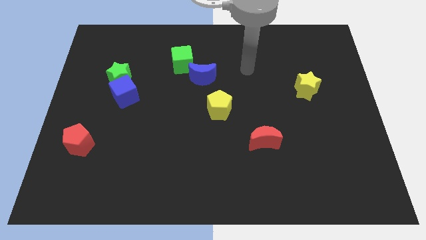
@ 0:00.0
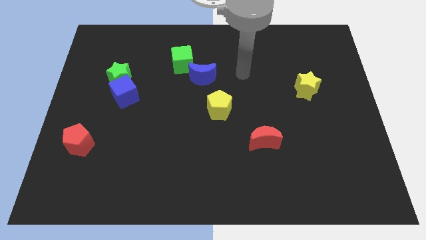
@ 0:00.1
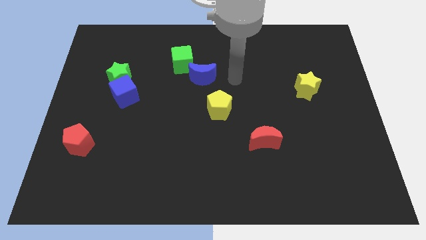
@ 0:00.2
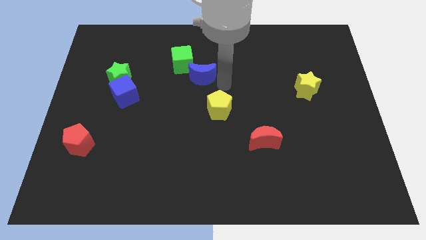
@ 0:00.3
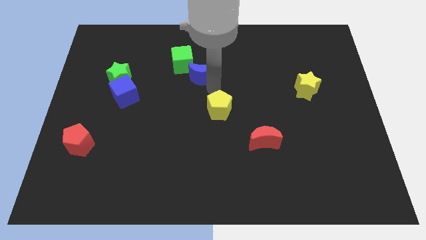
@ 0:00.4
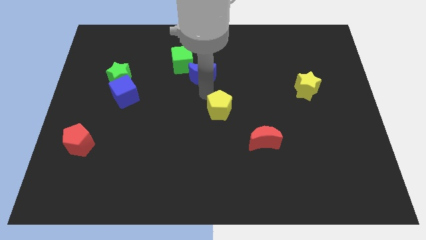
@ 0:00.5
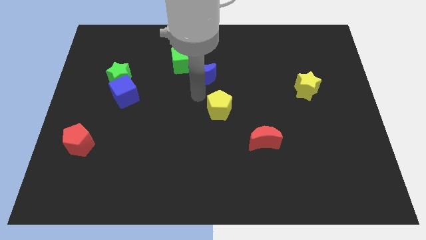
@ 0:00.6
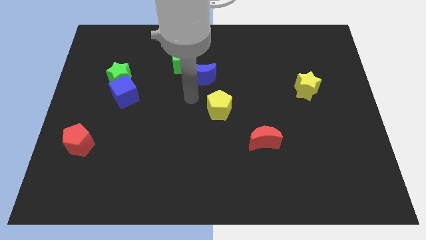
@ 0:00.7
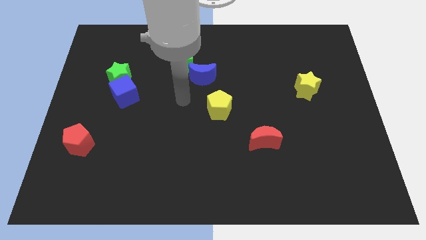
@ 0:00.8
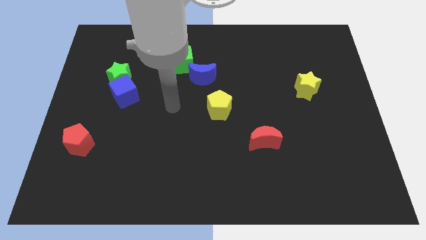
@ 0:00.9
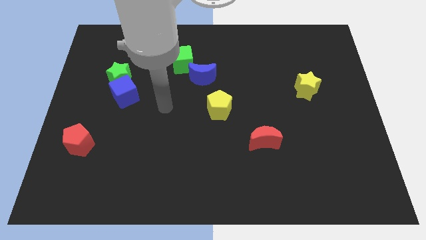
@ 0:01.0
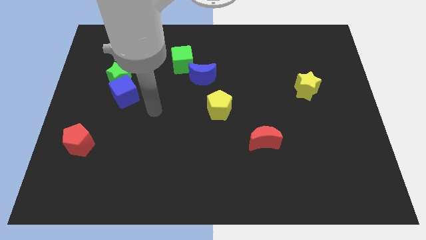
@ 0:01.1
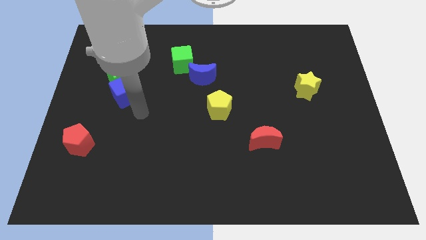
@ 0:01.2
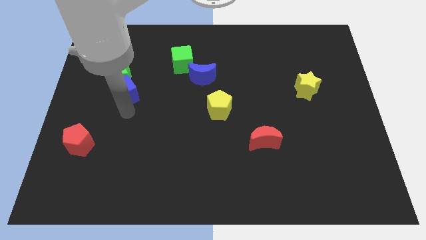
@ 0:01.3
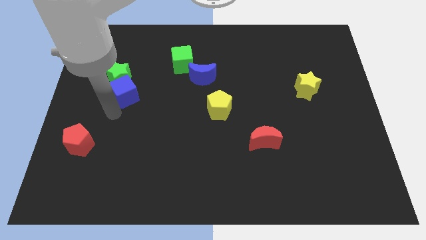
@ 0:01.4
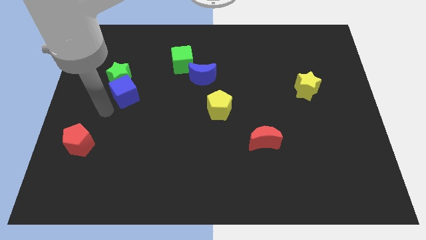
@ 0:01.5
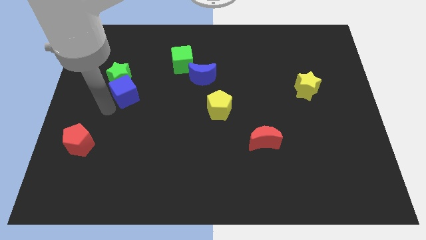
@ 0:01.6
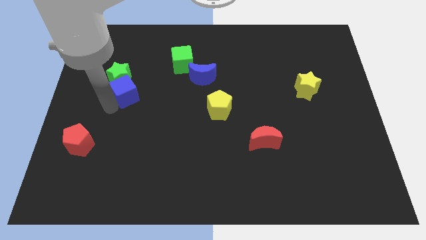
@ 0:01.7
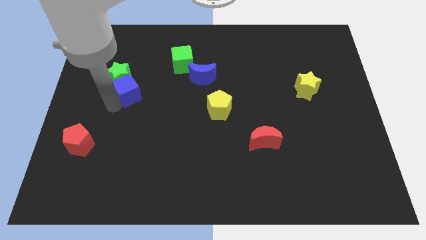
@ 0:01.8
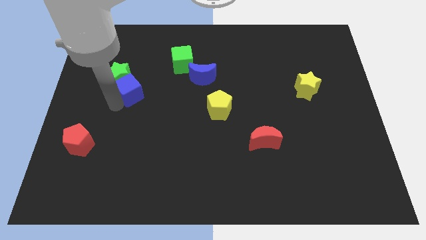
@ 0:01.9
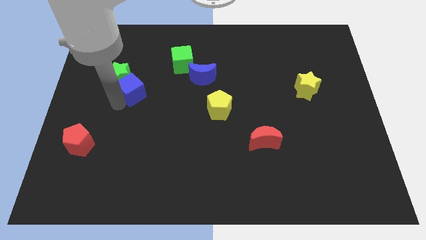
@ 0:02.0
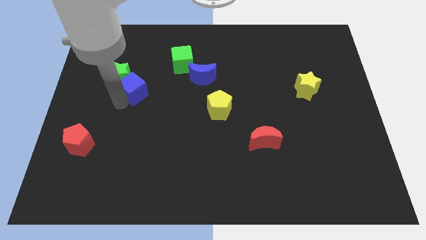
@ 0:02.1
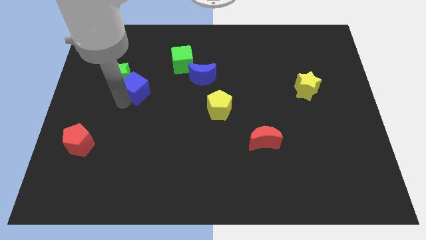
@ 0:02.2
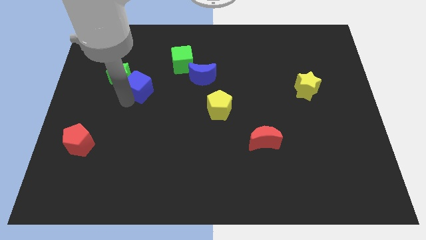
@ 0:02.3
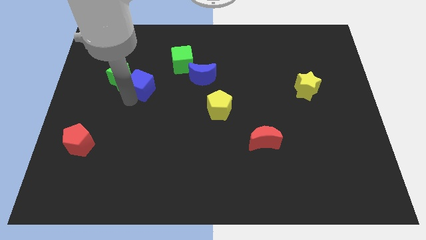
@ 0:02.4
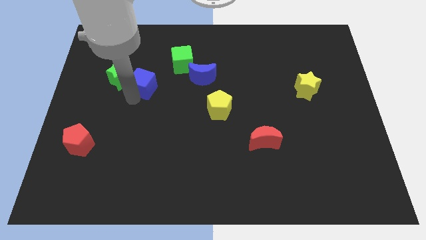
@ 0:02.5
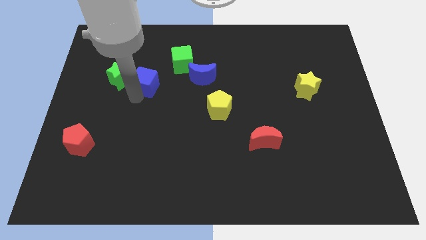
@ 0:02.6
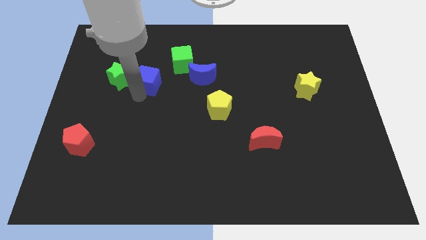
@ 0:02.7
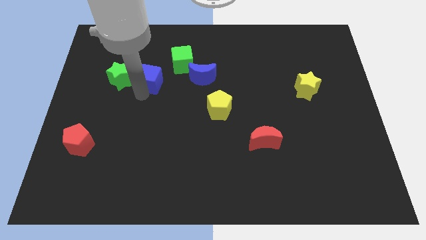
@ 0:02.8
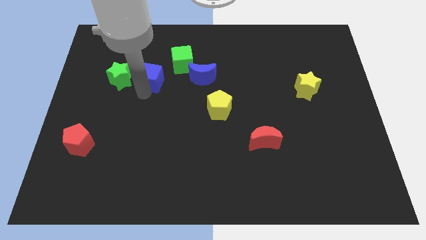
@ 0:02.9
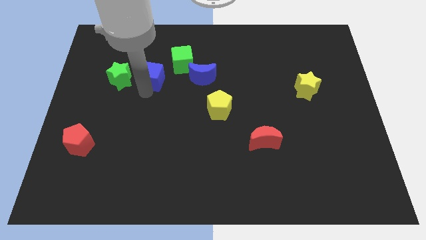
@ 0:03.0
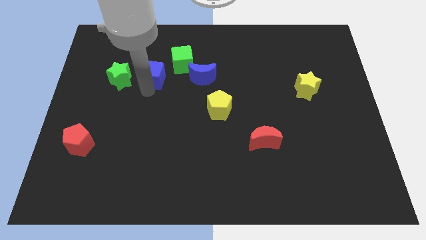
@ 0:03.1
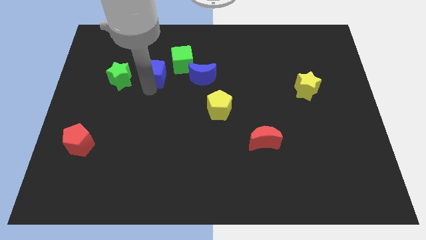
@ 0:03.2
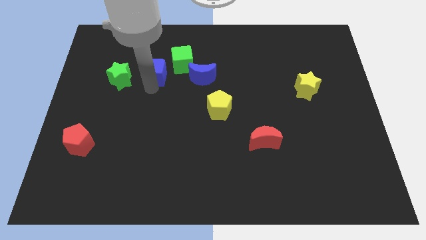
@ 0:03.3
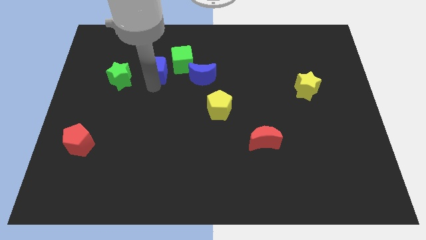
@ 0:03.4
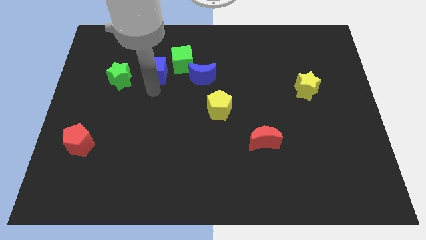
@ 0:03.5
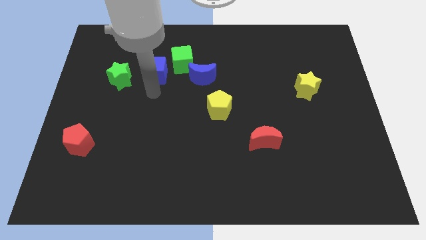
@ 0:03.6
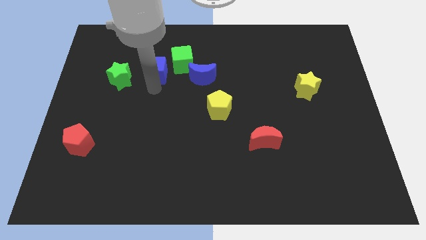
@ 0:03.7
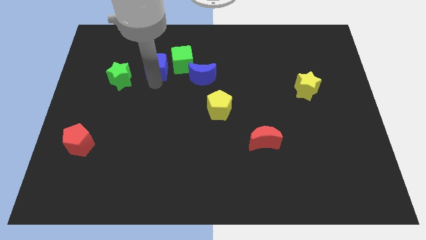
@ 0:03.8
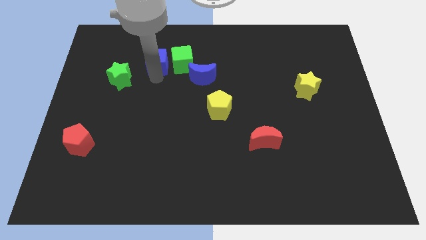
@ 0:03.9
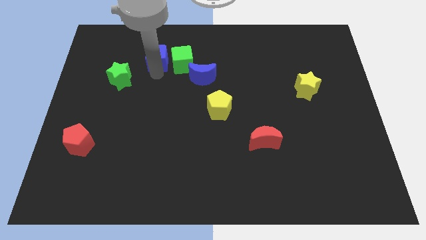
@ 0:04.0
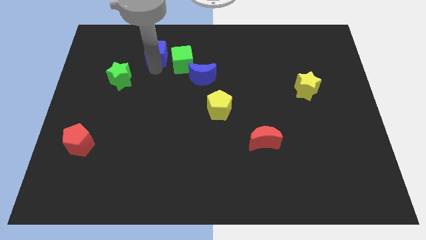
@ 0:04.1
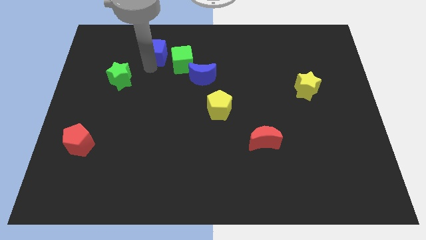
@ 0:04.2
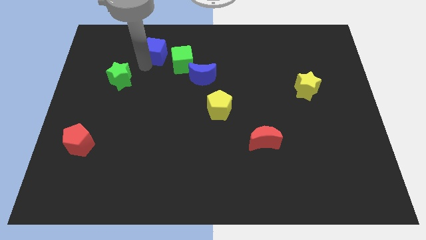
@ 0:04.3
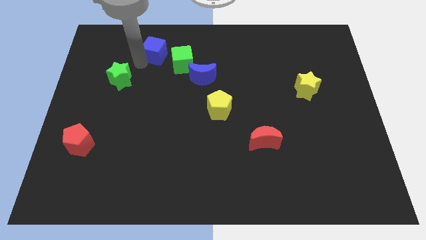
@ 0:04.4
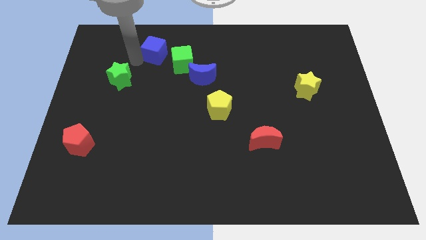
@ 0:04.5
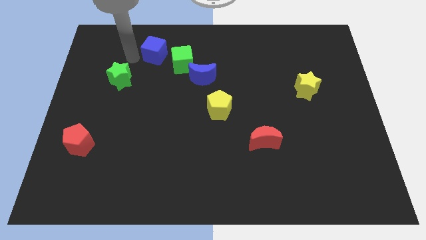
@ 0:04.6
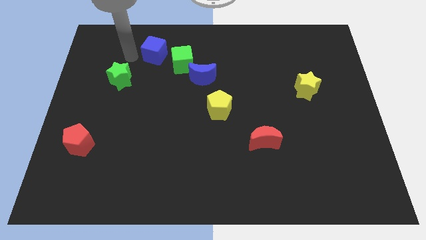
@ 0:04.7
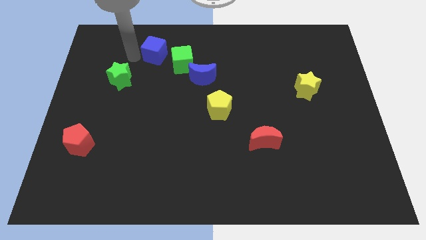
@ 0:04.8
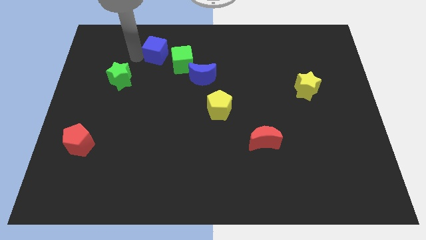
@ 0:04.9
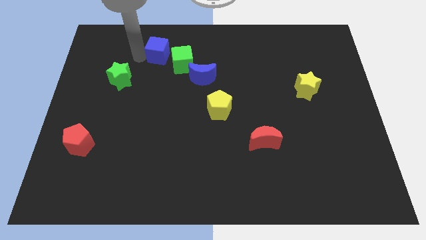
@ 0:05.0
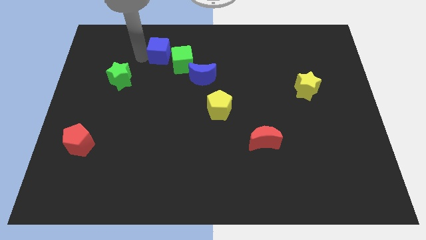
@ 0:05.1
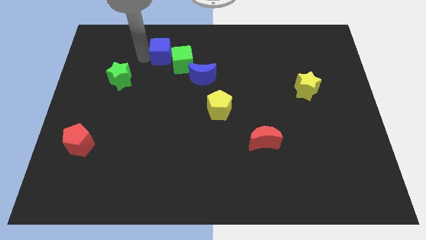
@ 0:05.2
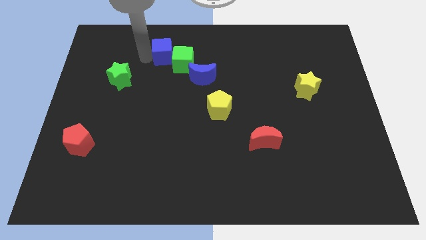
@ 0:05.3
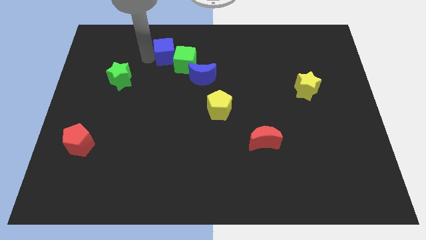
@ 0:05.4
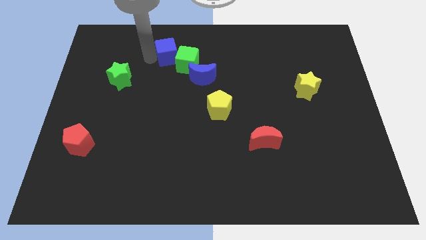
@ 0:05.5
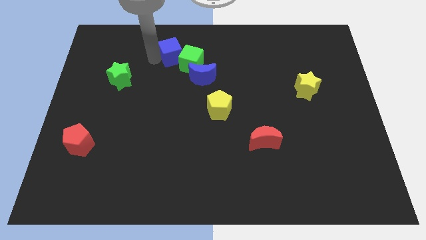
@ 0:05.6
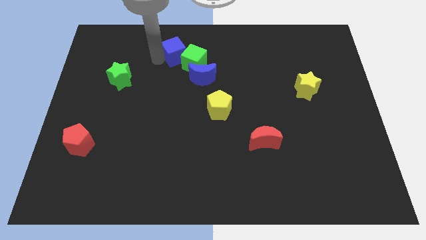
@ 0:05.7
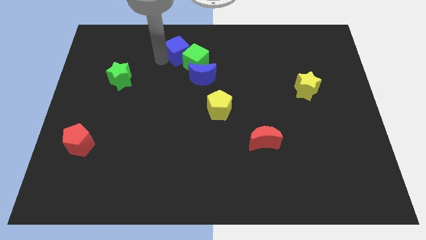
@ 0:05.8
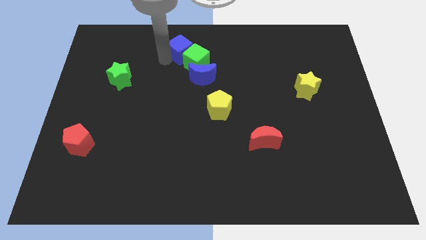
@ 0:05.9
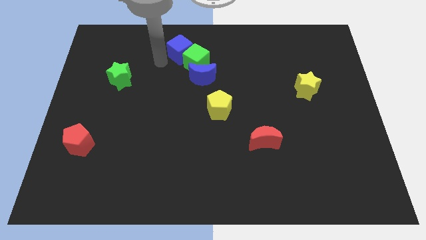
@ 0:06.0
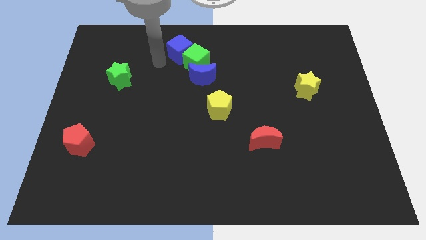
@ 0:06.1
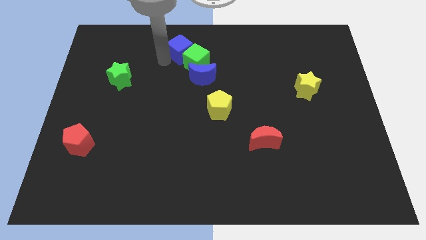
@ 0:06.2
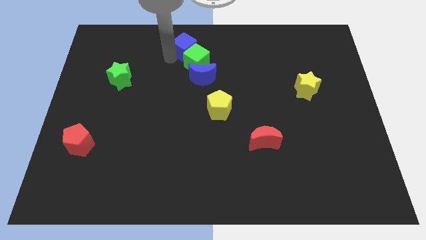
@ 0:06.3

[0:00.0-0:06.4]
push the blue cube to the towards your base
